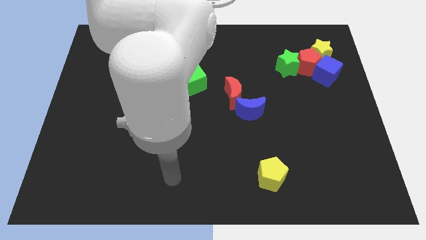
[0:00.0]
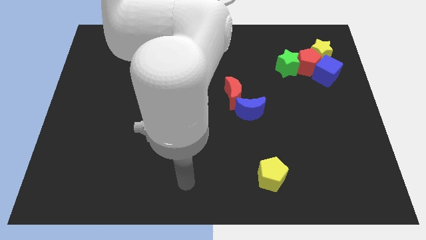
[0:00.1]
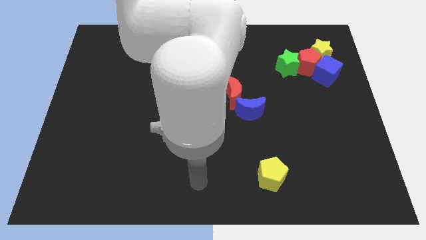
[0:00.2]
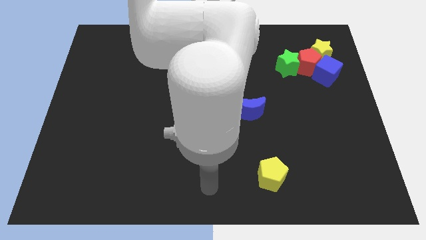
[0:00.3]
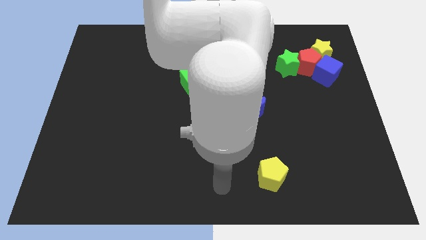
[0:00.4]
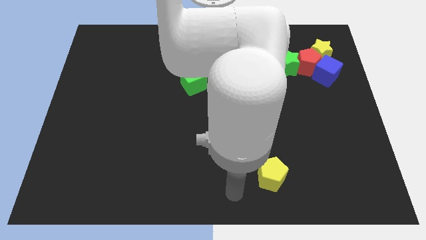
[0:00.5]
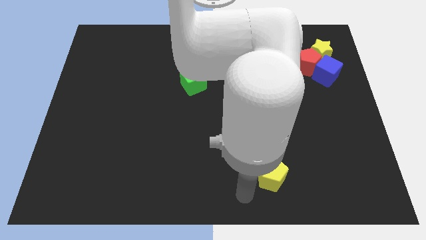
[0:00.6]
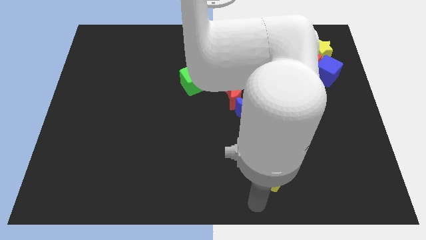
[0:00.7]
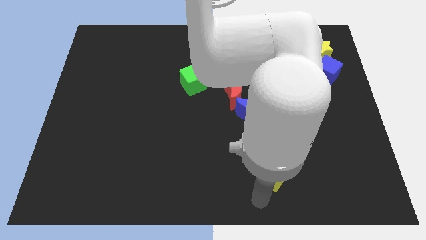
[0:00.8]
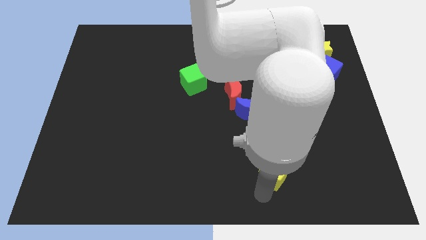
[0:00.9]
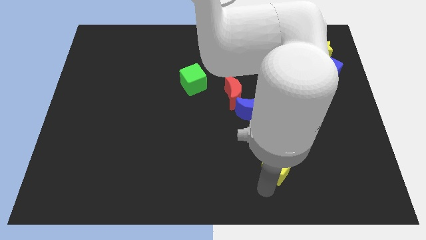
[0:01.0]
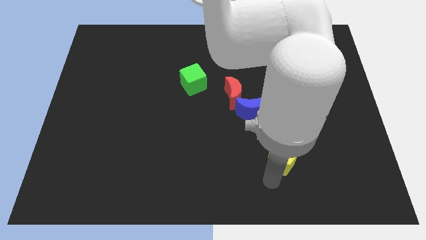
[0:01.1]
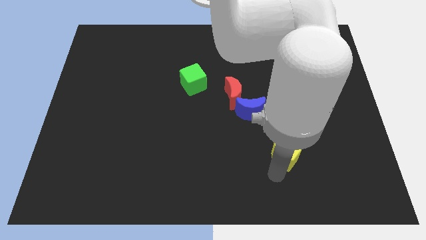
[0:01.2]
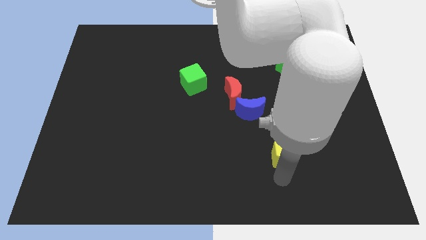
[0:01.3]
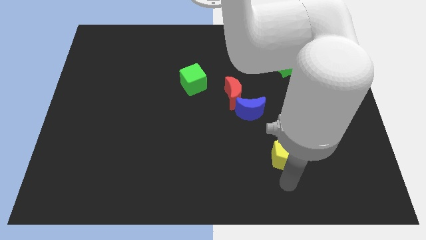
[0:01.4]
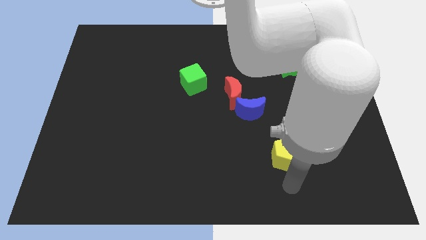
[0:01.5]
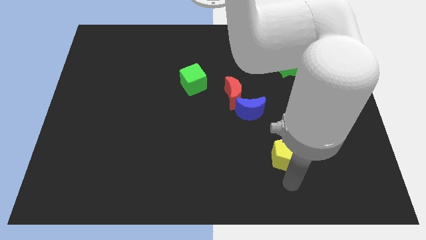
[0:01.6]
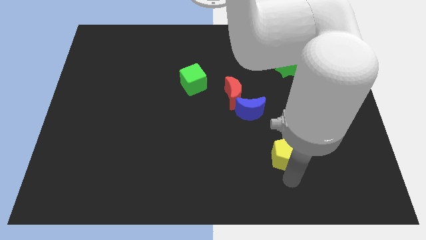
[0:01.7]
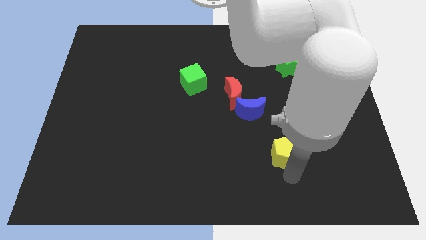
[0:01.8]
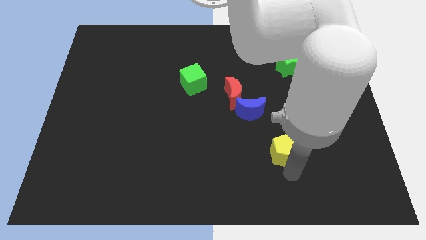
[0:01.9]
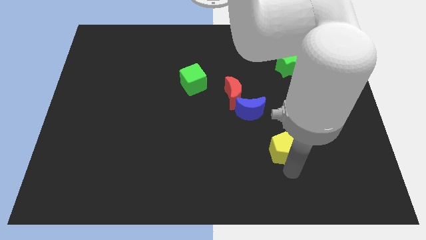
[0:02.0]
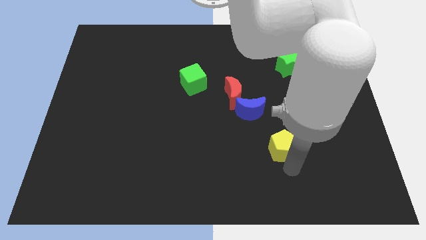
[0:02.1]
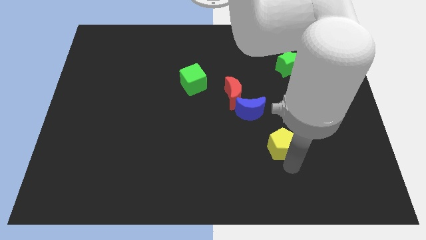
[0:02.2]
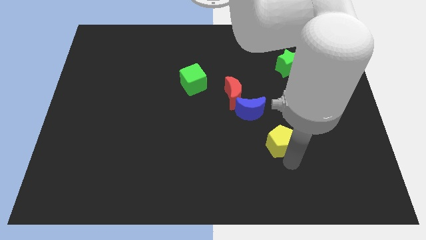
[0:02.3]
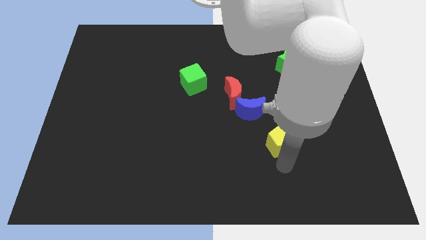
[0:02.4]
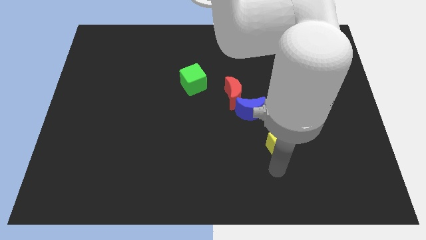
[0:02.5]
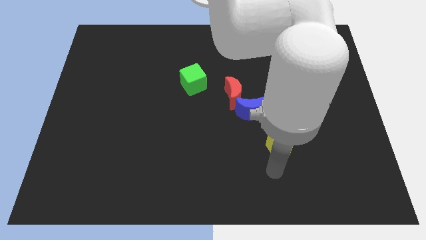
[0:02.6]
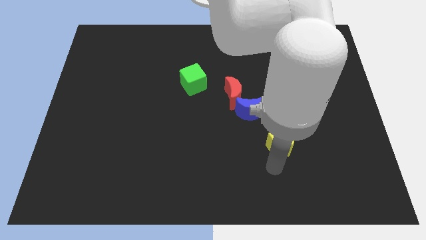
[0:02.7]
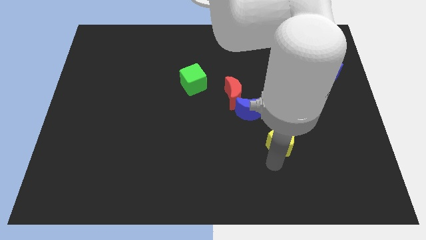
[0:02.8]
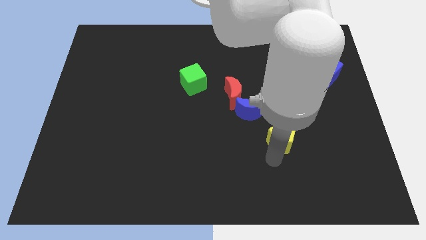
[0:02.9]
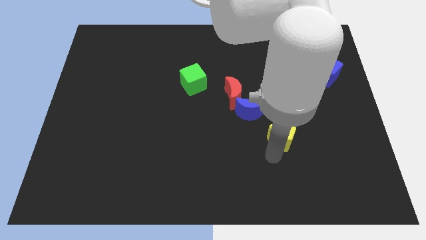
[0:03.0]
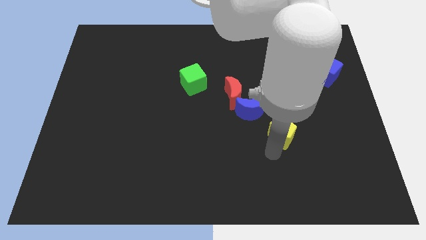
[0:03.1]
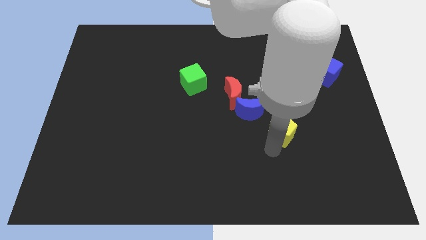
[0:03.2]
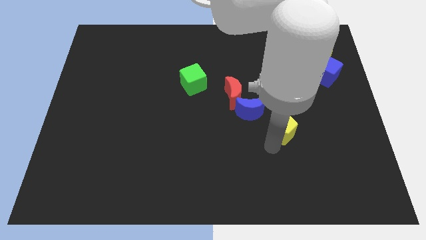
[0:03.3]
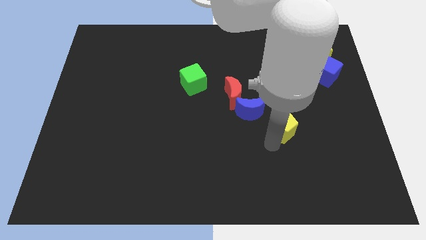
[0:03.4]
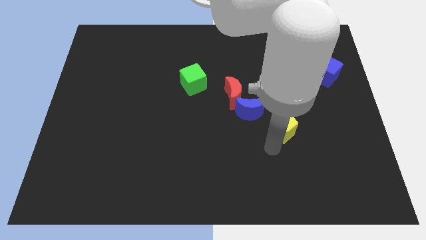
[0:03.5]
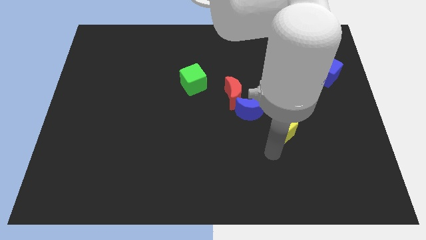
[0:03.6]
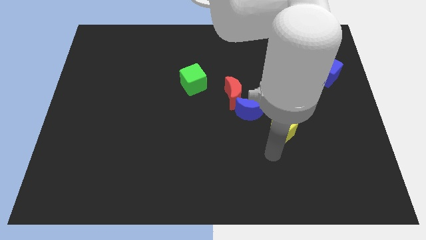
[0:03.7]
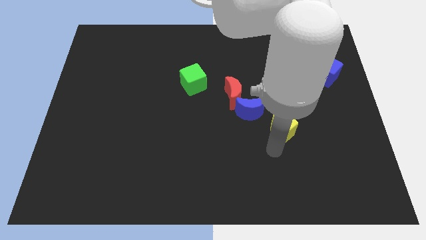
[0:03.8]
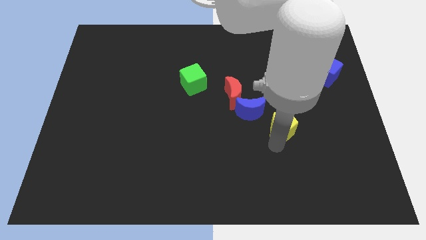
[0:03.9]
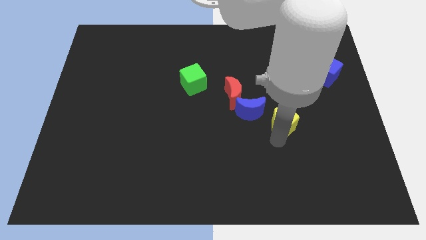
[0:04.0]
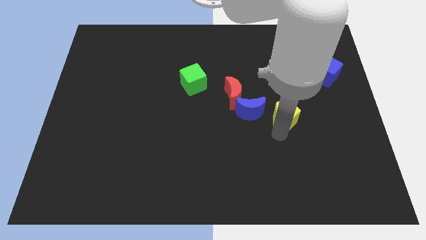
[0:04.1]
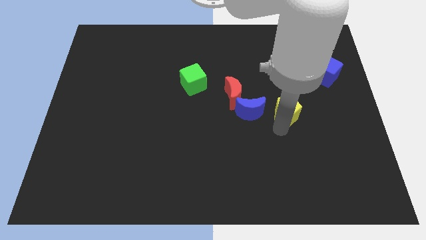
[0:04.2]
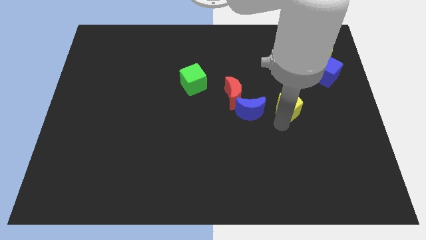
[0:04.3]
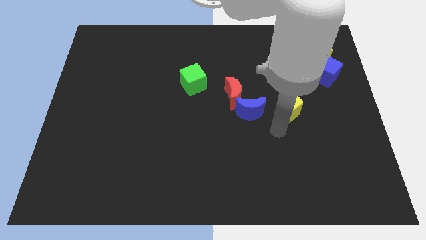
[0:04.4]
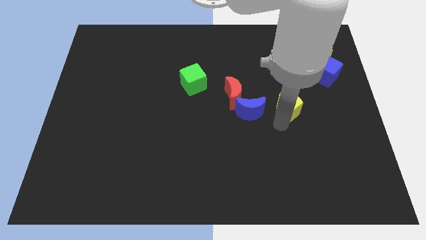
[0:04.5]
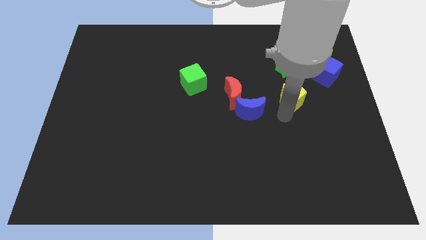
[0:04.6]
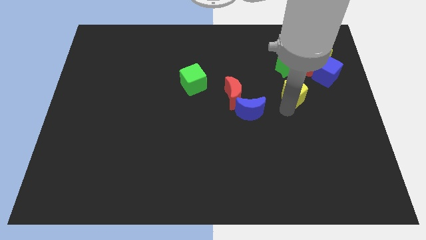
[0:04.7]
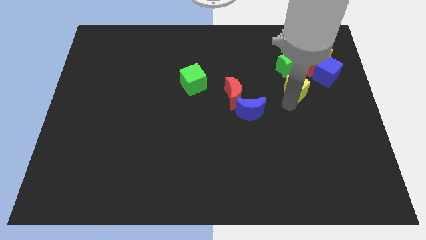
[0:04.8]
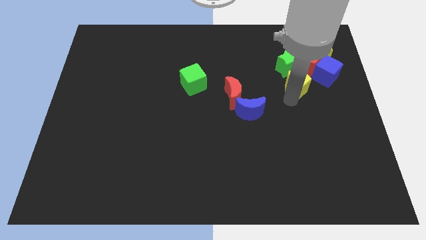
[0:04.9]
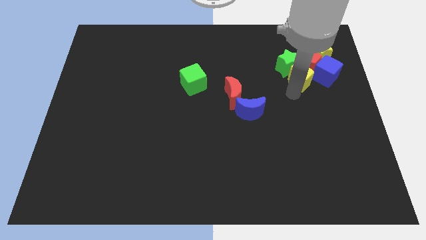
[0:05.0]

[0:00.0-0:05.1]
push the yellow pentagon close to the red pentagon

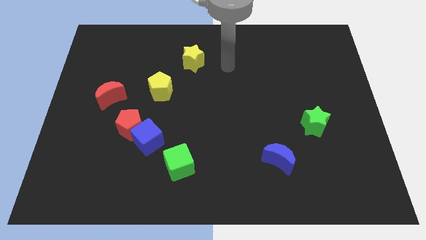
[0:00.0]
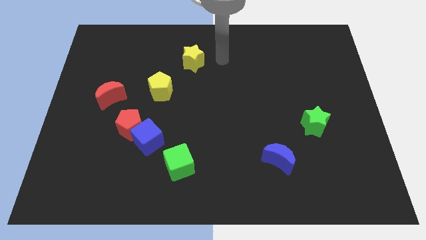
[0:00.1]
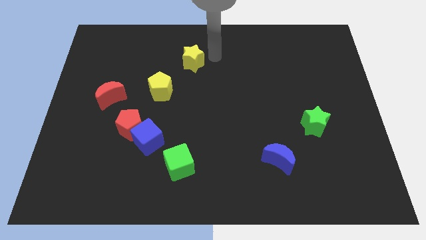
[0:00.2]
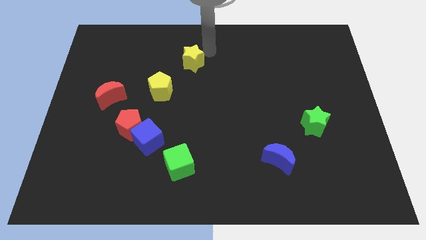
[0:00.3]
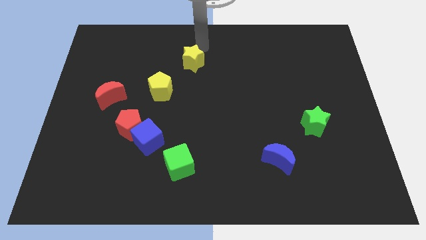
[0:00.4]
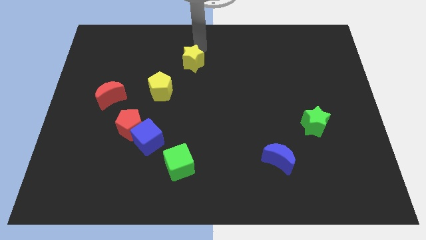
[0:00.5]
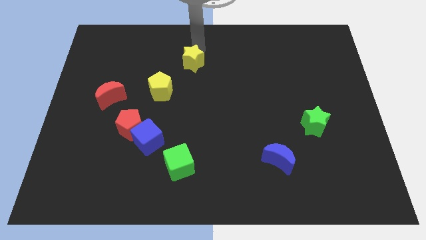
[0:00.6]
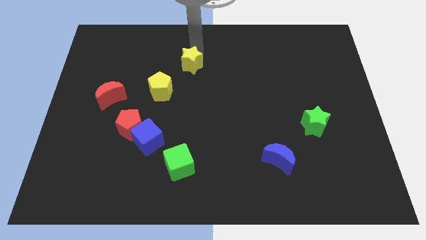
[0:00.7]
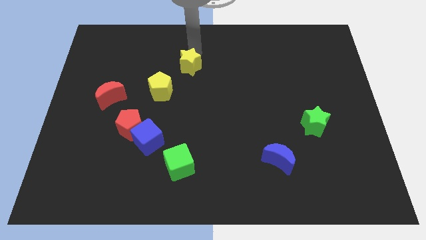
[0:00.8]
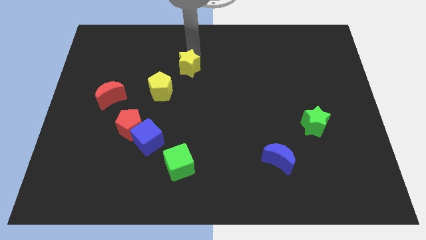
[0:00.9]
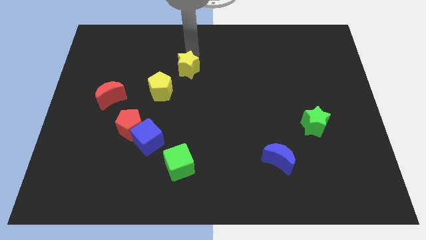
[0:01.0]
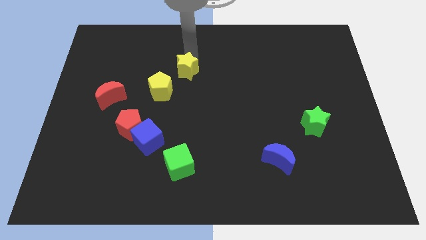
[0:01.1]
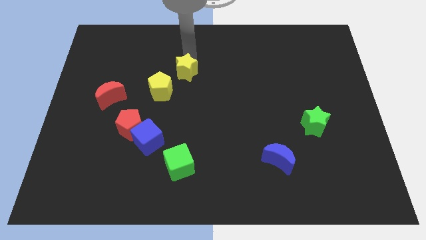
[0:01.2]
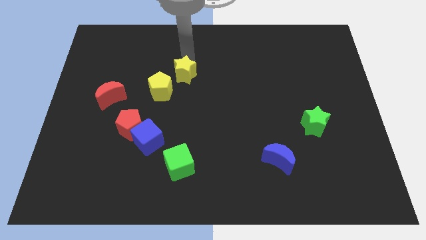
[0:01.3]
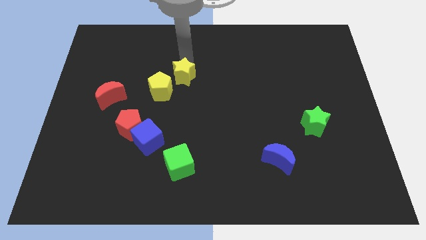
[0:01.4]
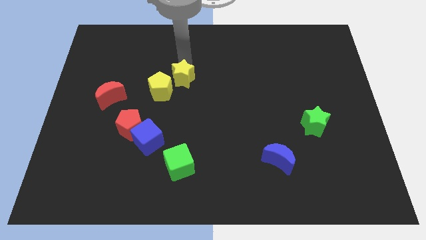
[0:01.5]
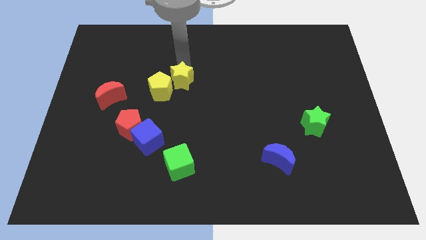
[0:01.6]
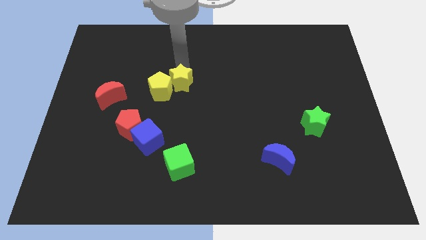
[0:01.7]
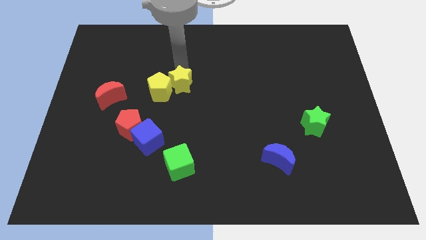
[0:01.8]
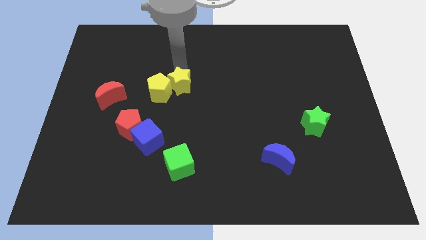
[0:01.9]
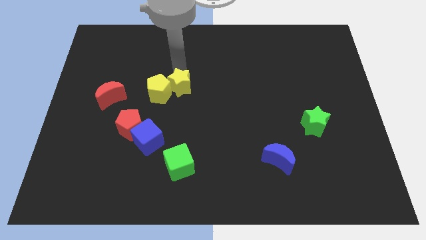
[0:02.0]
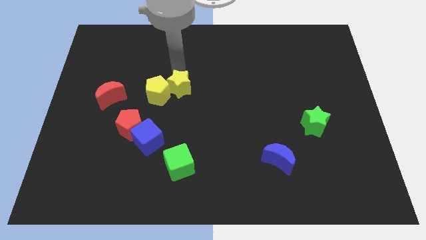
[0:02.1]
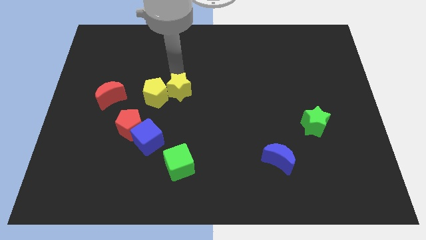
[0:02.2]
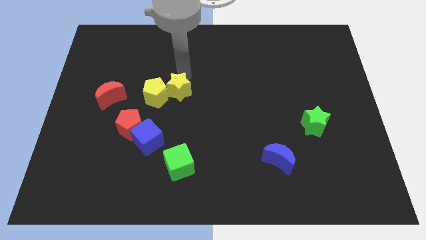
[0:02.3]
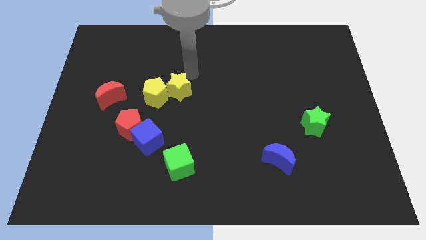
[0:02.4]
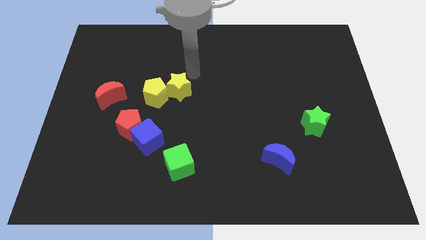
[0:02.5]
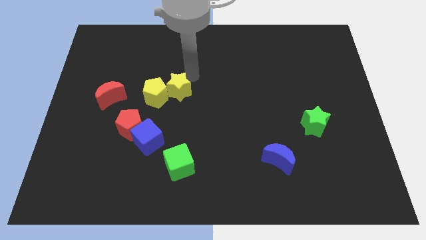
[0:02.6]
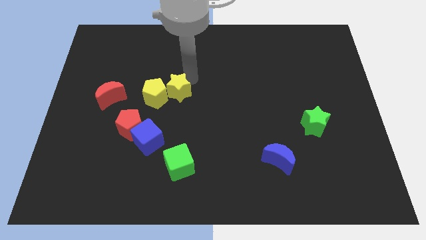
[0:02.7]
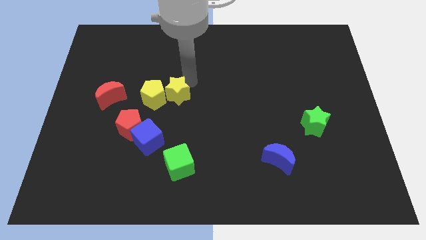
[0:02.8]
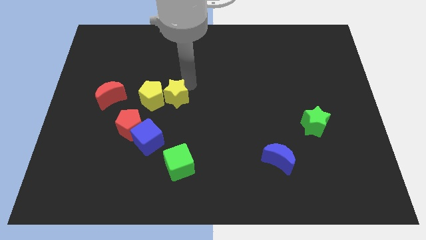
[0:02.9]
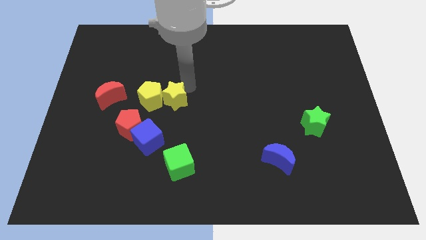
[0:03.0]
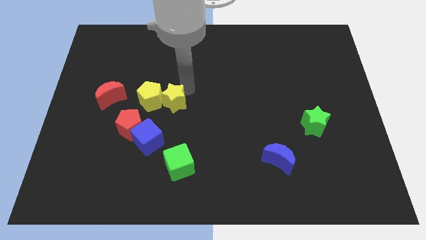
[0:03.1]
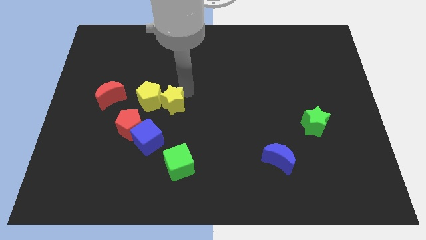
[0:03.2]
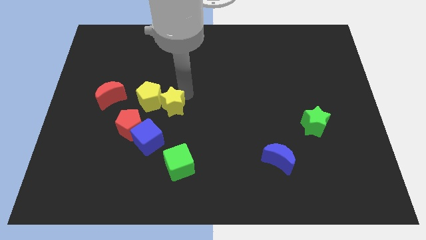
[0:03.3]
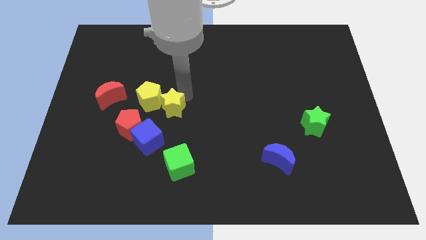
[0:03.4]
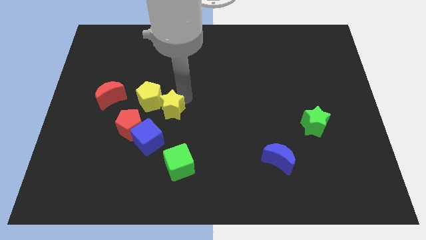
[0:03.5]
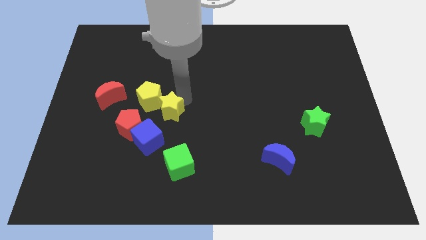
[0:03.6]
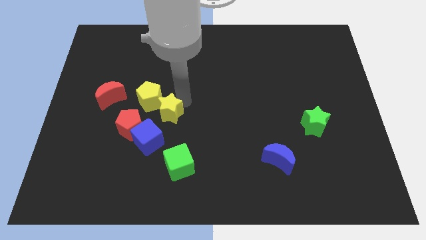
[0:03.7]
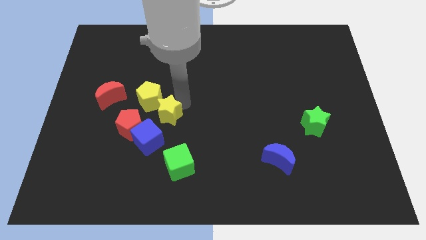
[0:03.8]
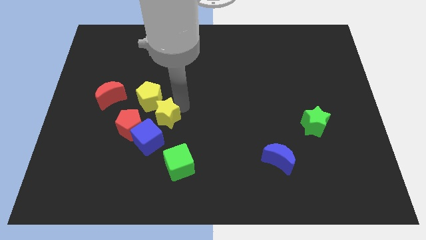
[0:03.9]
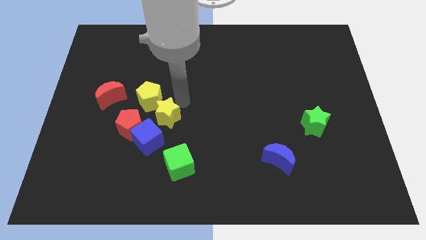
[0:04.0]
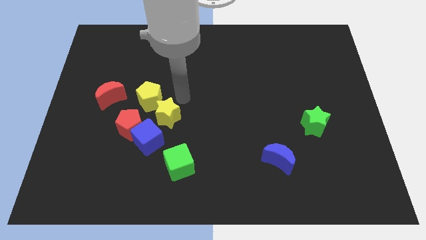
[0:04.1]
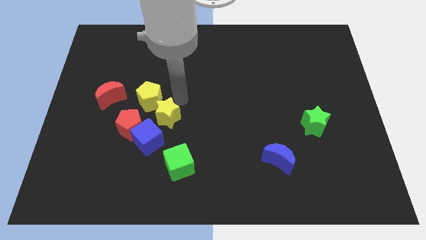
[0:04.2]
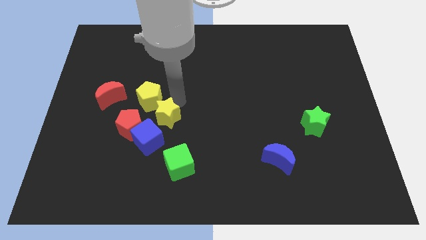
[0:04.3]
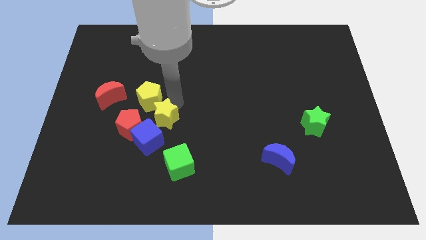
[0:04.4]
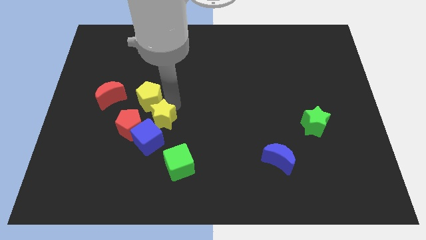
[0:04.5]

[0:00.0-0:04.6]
move the yellow star close to the blue cube
